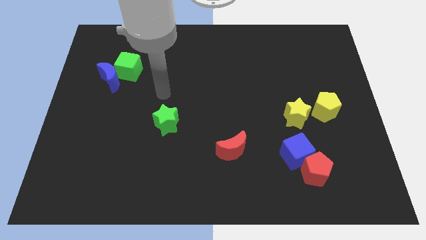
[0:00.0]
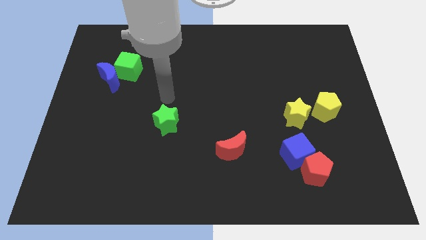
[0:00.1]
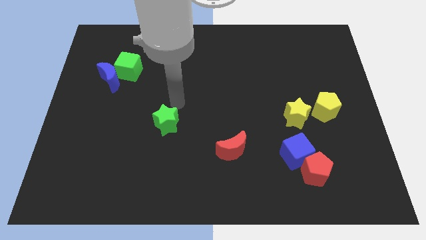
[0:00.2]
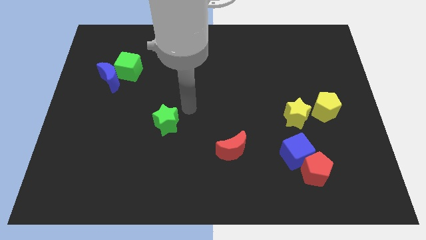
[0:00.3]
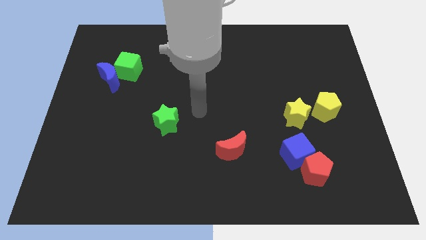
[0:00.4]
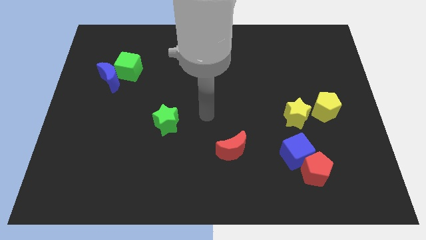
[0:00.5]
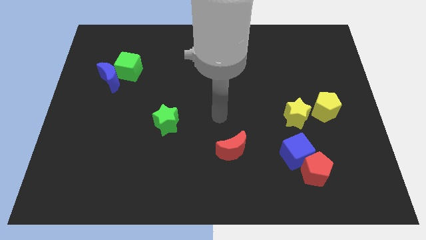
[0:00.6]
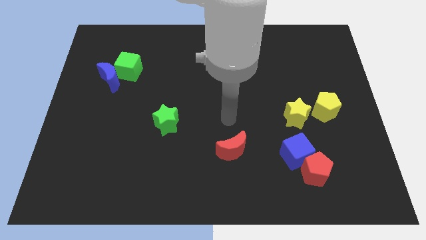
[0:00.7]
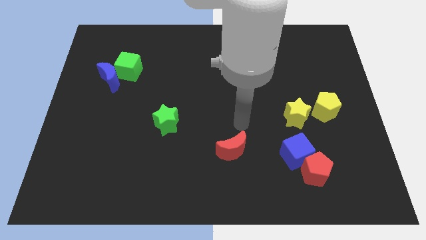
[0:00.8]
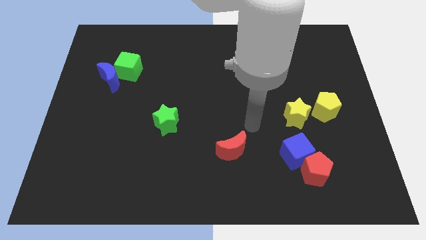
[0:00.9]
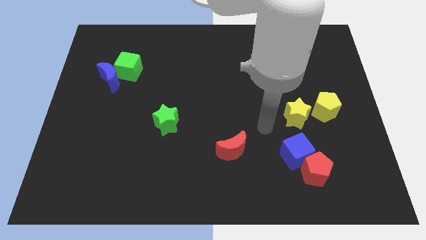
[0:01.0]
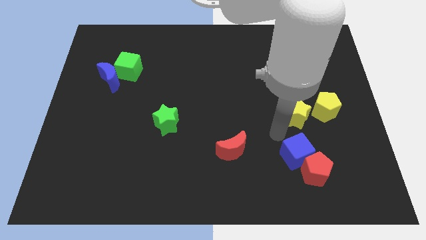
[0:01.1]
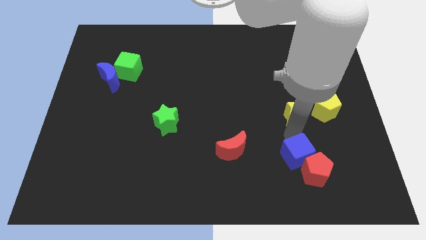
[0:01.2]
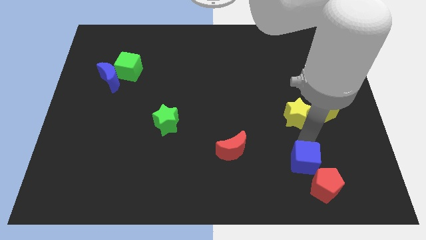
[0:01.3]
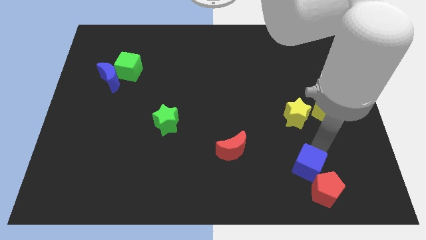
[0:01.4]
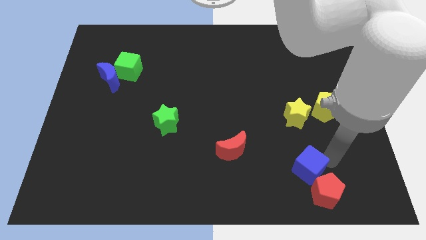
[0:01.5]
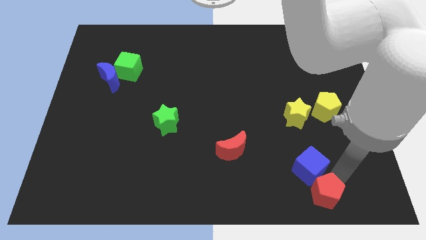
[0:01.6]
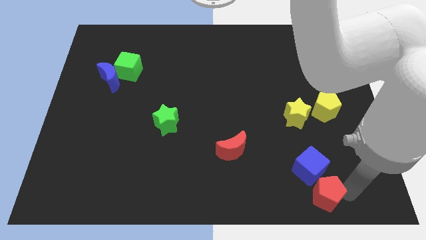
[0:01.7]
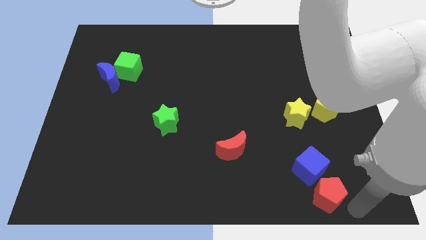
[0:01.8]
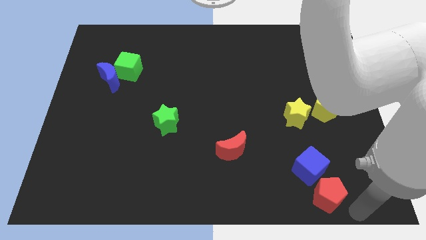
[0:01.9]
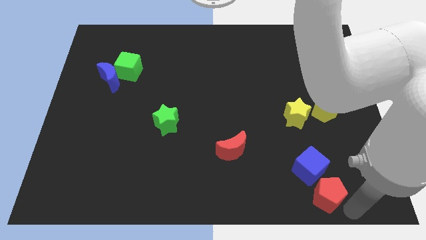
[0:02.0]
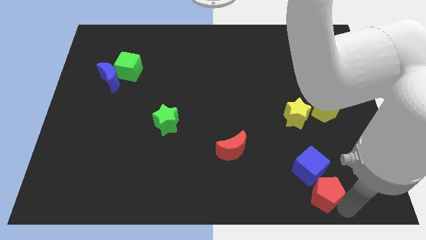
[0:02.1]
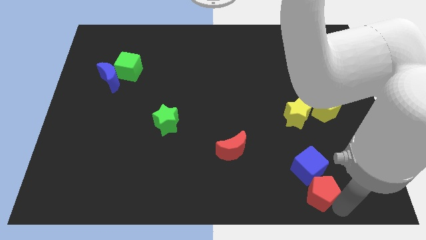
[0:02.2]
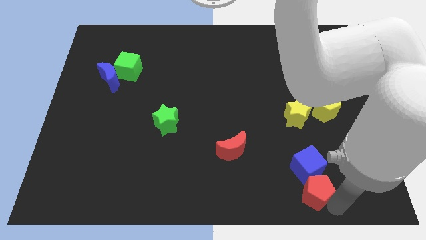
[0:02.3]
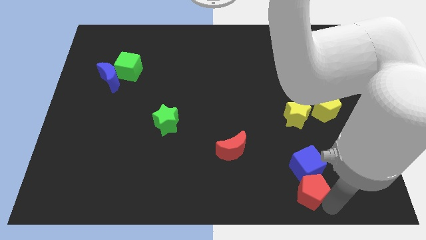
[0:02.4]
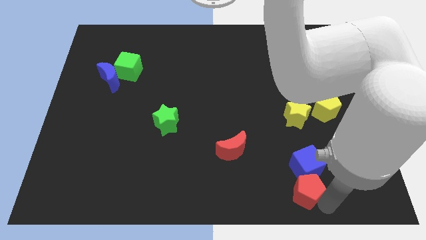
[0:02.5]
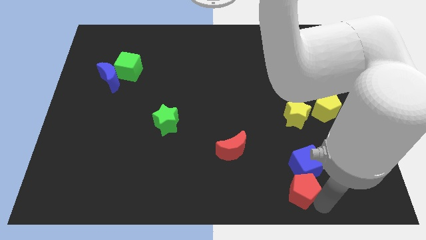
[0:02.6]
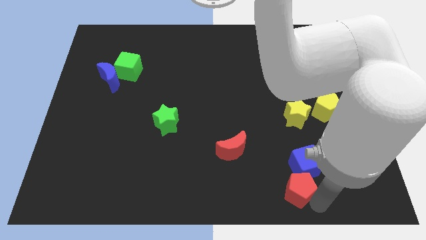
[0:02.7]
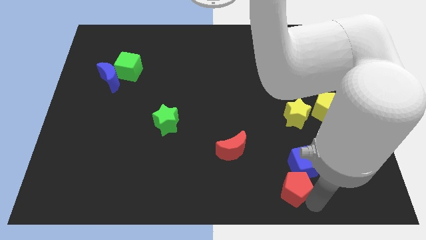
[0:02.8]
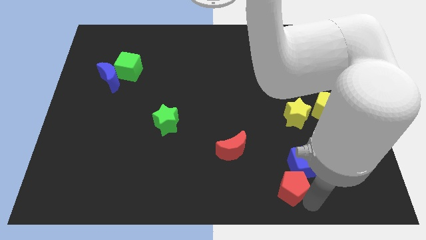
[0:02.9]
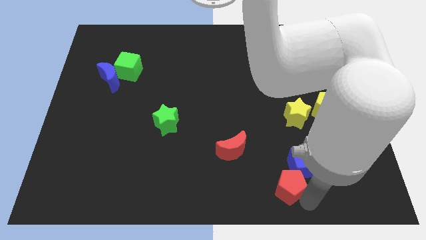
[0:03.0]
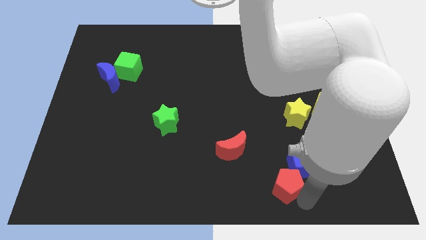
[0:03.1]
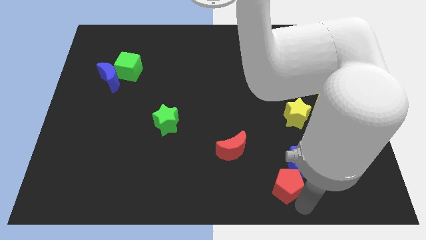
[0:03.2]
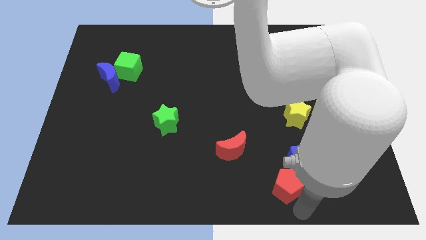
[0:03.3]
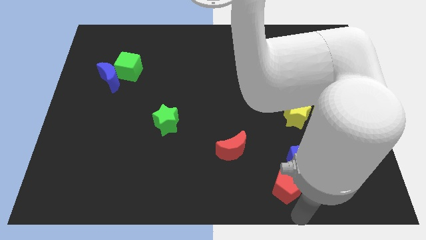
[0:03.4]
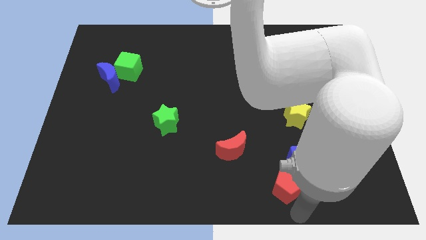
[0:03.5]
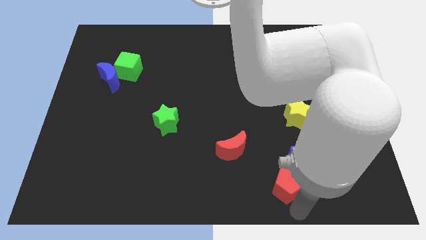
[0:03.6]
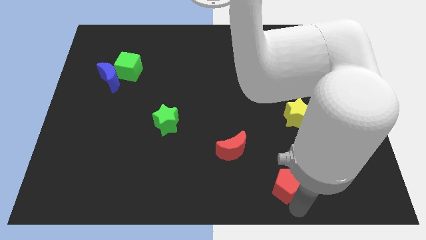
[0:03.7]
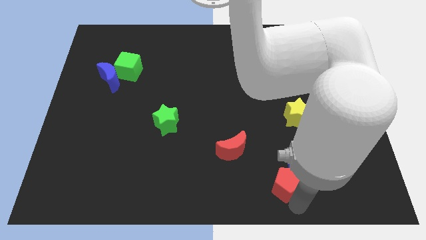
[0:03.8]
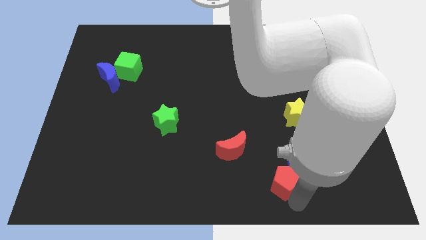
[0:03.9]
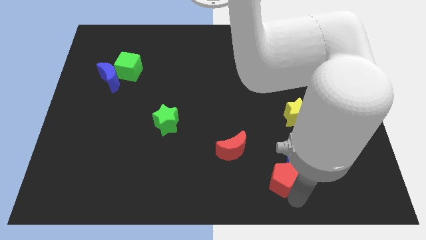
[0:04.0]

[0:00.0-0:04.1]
push the red pentagon left a little bit

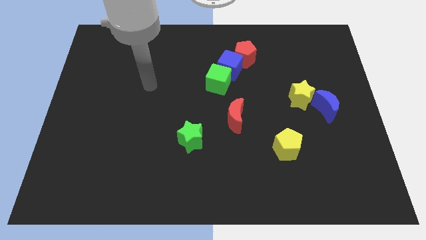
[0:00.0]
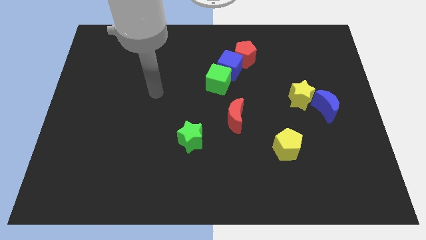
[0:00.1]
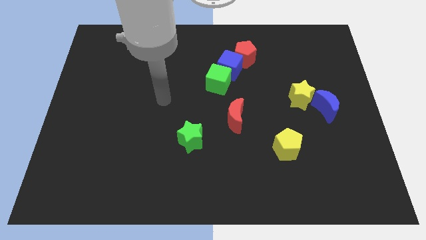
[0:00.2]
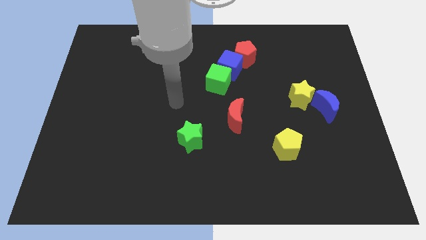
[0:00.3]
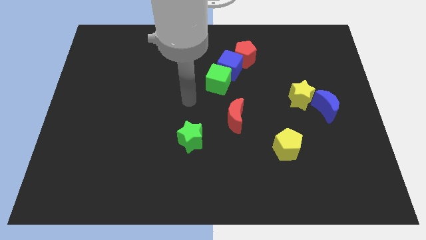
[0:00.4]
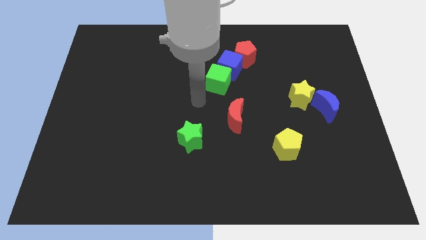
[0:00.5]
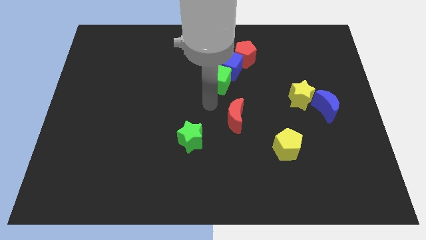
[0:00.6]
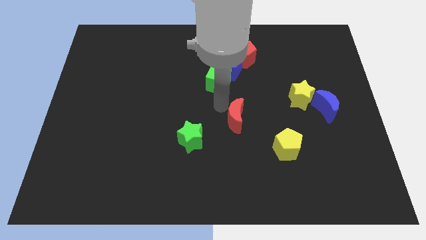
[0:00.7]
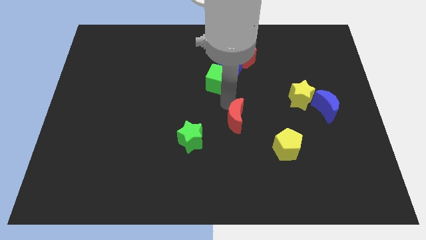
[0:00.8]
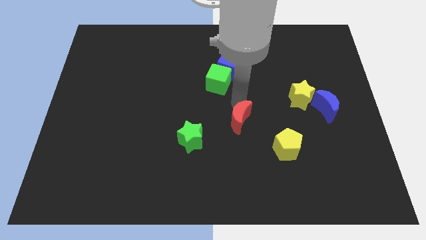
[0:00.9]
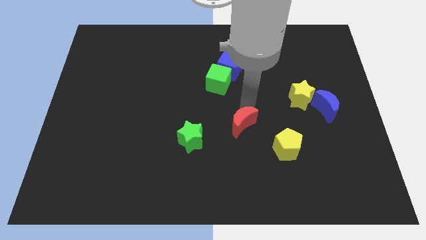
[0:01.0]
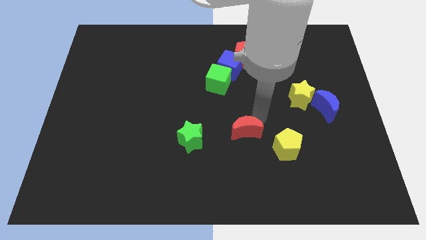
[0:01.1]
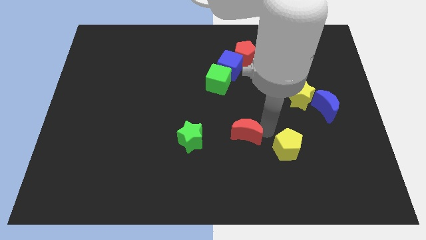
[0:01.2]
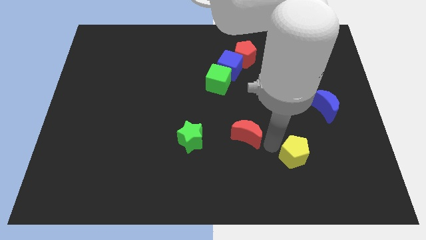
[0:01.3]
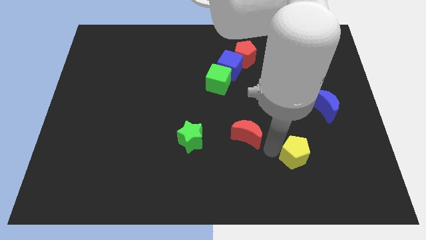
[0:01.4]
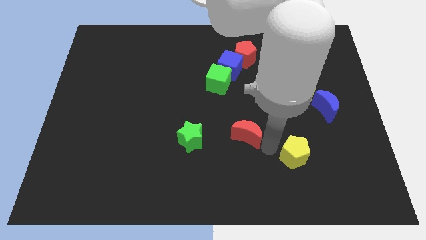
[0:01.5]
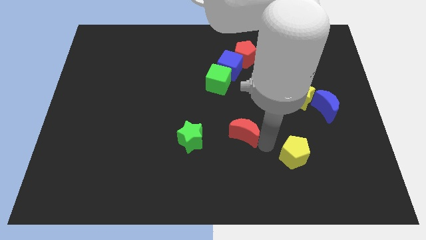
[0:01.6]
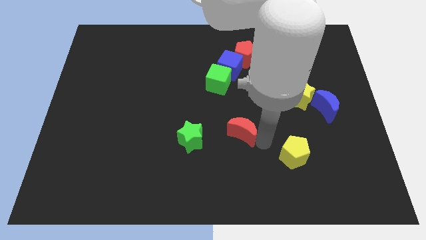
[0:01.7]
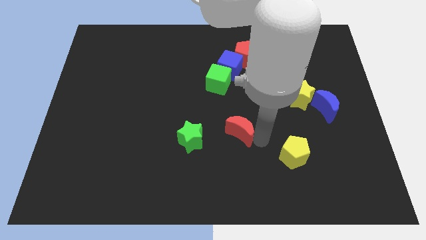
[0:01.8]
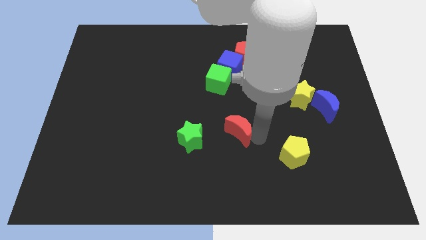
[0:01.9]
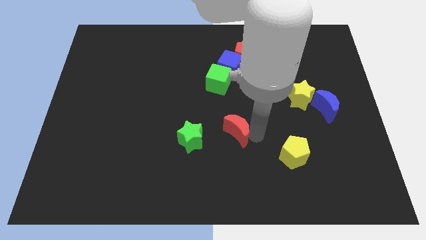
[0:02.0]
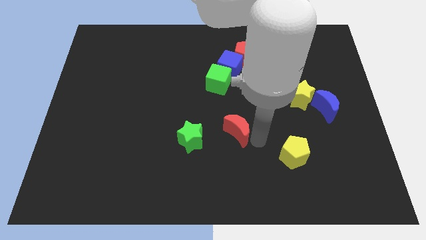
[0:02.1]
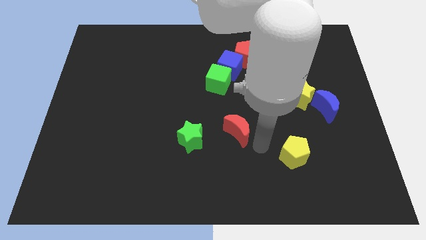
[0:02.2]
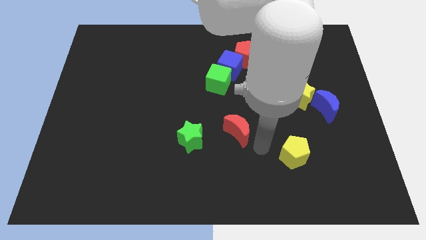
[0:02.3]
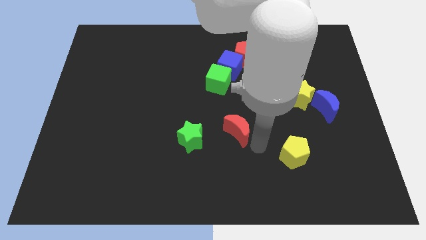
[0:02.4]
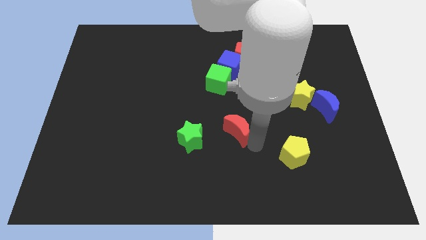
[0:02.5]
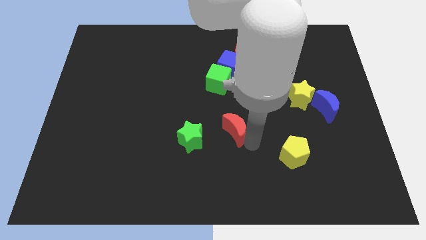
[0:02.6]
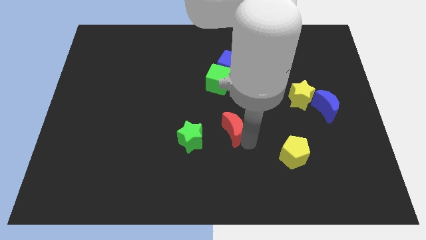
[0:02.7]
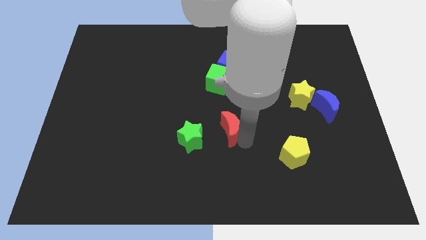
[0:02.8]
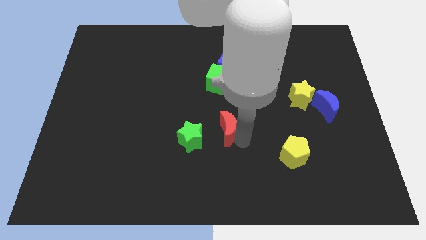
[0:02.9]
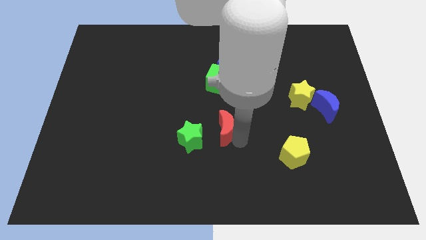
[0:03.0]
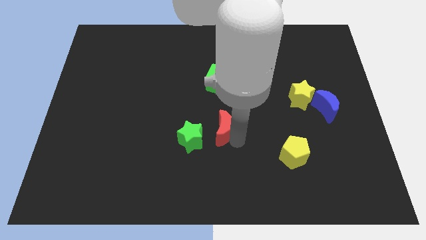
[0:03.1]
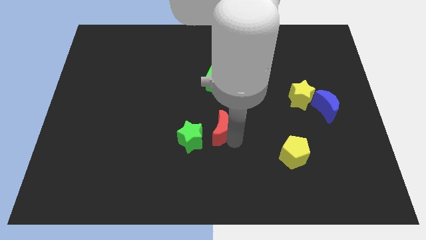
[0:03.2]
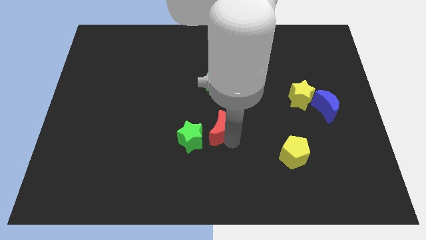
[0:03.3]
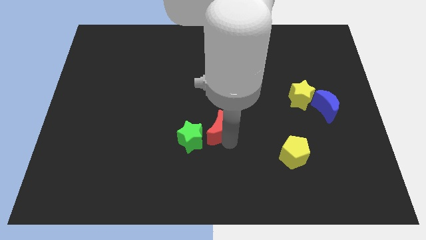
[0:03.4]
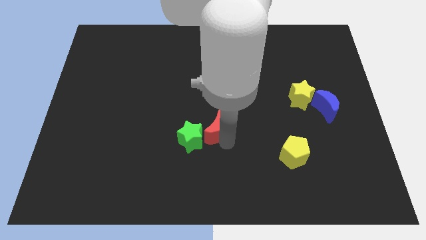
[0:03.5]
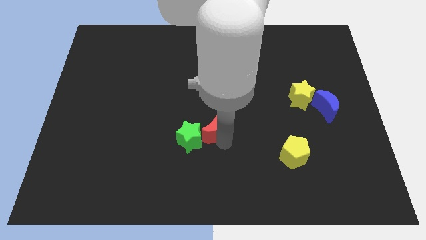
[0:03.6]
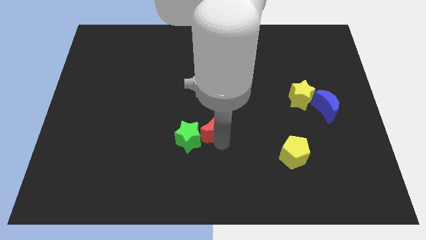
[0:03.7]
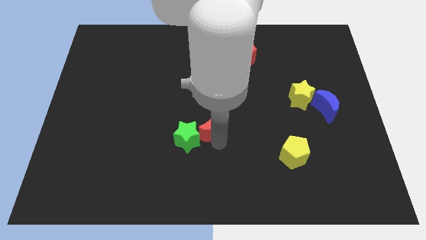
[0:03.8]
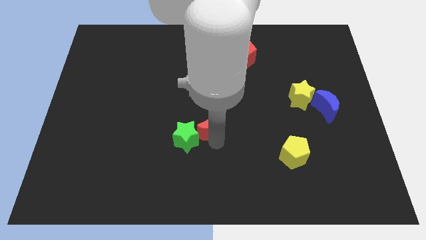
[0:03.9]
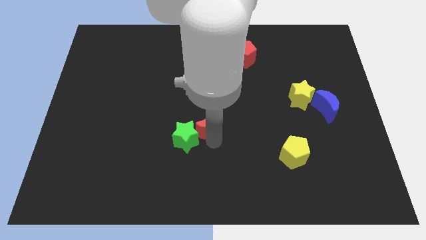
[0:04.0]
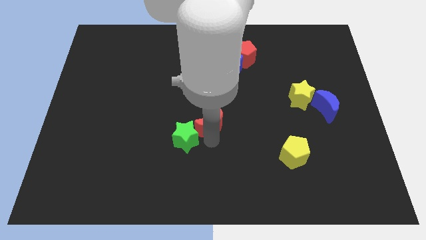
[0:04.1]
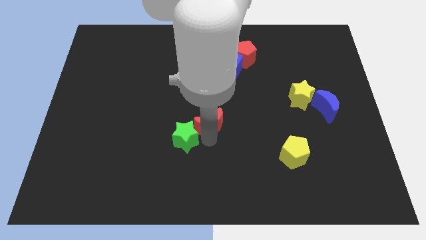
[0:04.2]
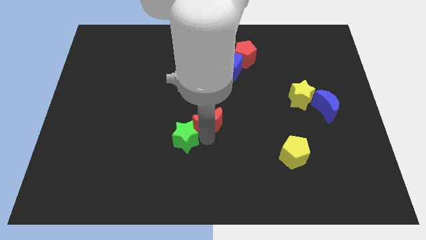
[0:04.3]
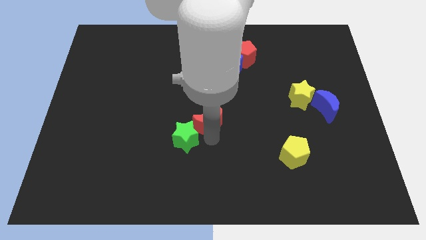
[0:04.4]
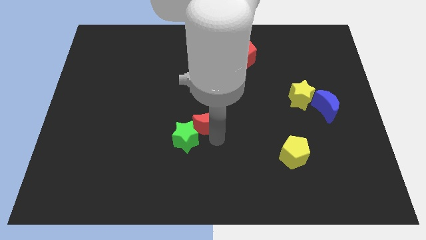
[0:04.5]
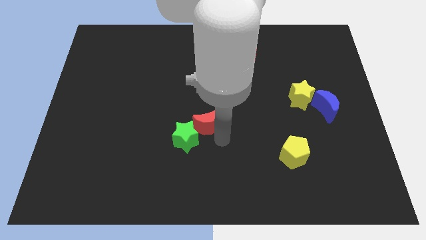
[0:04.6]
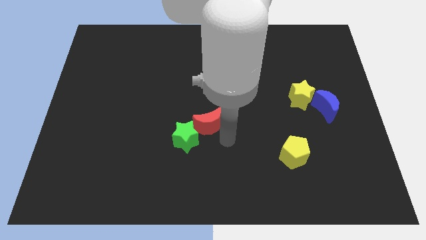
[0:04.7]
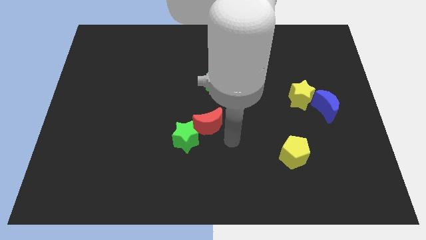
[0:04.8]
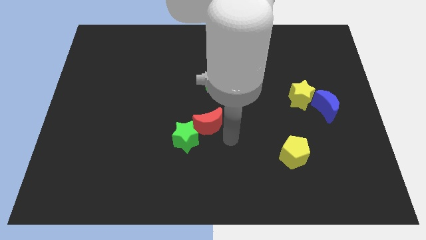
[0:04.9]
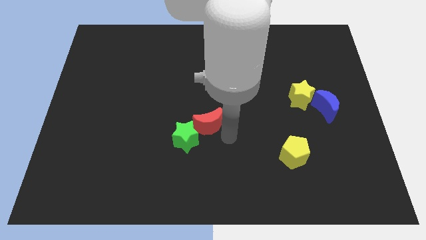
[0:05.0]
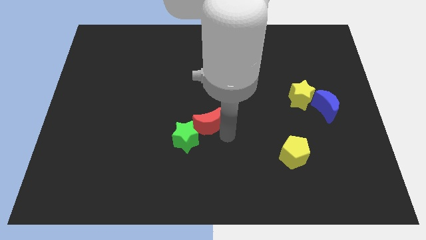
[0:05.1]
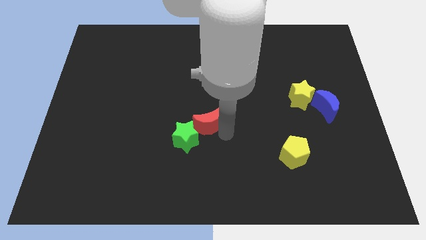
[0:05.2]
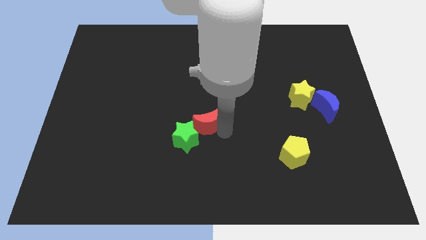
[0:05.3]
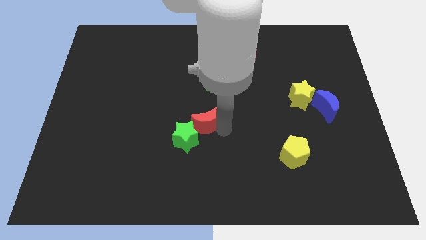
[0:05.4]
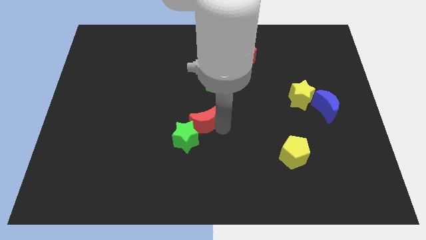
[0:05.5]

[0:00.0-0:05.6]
move the red moon left a little bit
